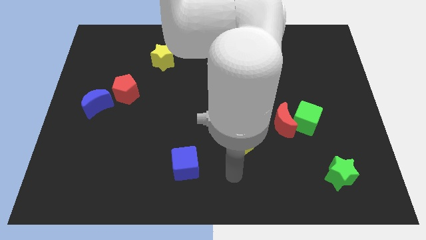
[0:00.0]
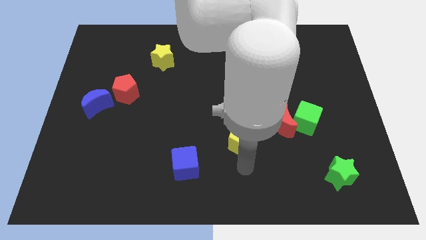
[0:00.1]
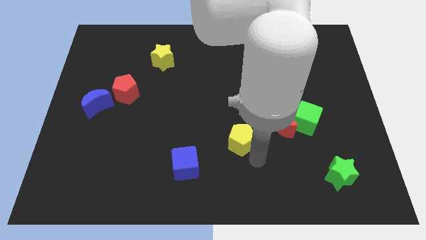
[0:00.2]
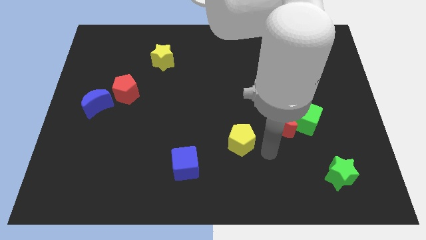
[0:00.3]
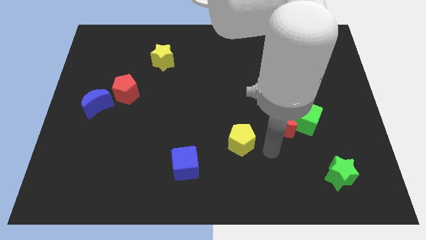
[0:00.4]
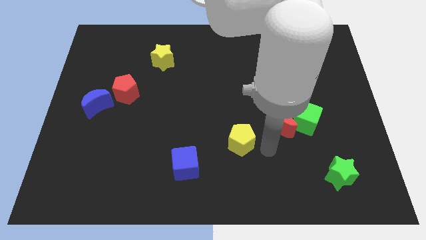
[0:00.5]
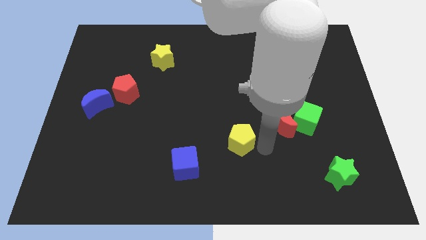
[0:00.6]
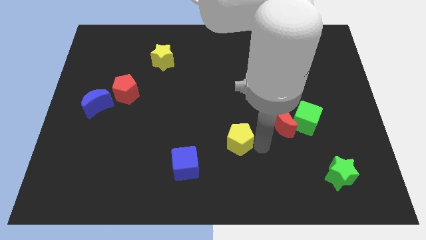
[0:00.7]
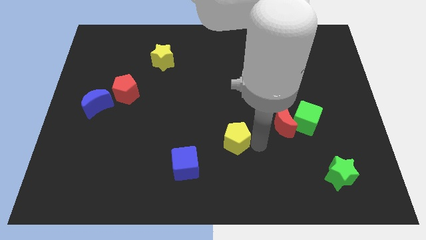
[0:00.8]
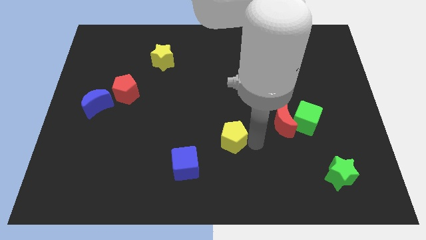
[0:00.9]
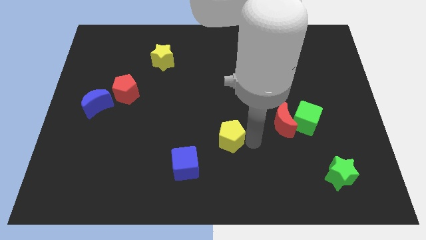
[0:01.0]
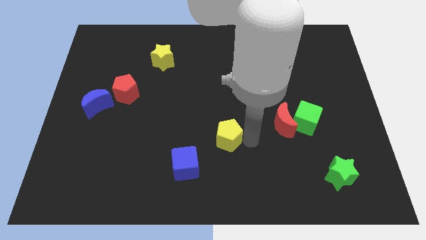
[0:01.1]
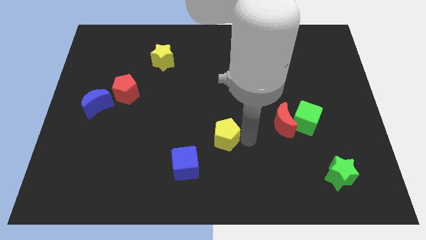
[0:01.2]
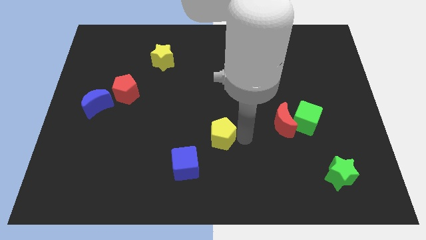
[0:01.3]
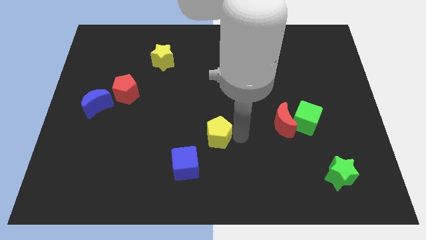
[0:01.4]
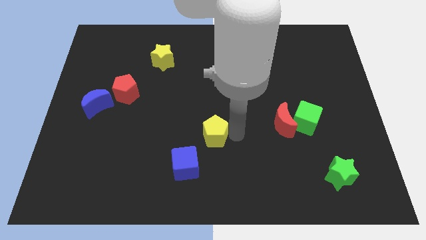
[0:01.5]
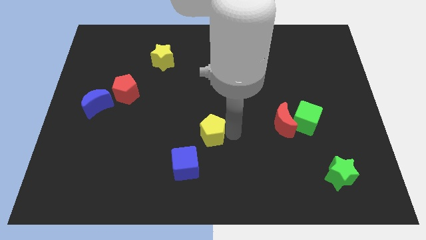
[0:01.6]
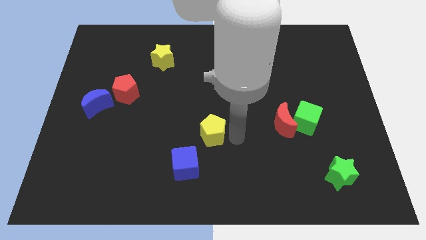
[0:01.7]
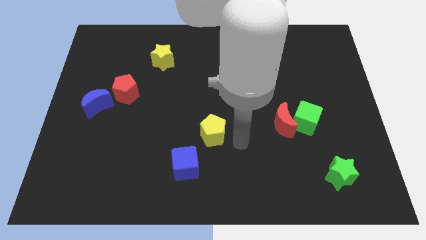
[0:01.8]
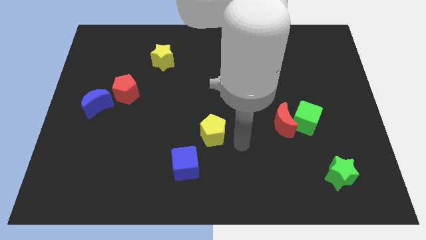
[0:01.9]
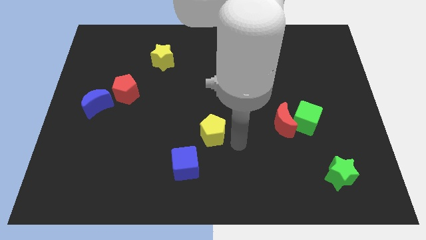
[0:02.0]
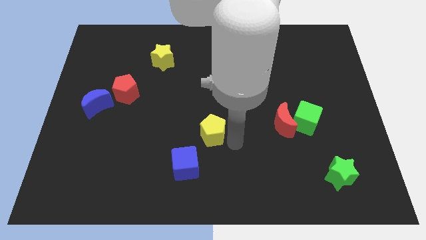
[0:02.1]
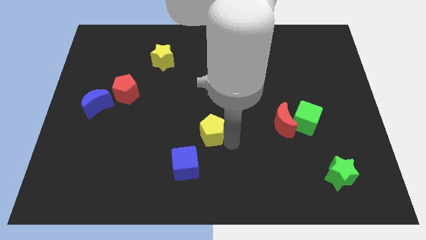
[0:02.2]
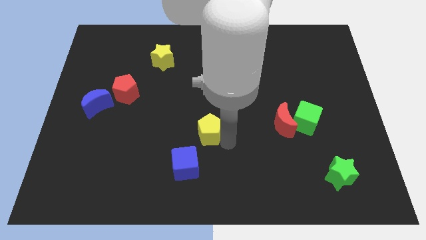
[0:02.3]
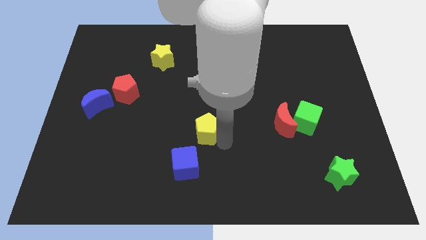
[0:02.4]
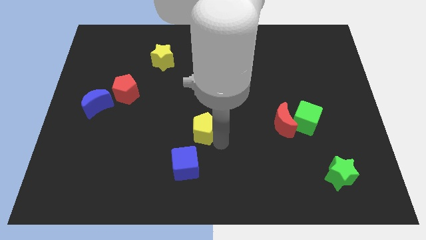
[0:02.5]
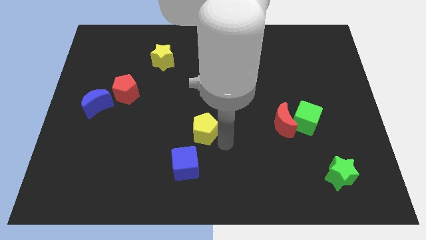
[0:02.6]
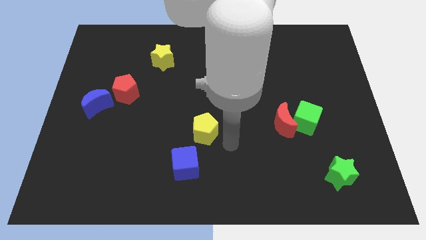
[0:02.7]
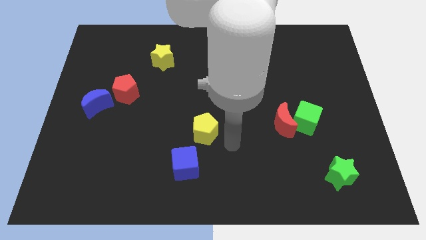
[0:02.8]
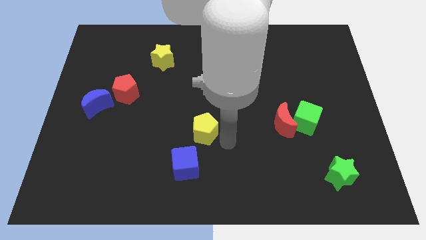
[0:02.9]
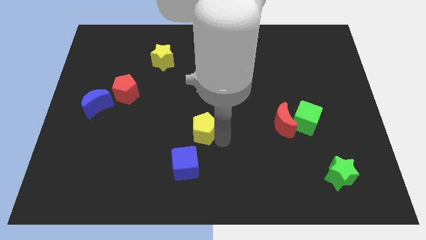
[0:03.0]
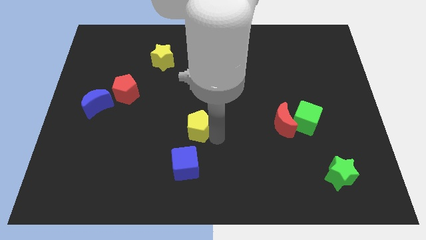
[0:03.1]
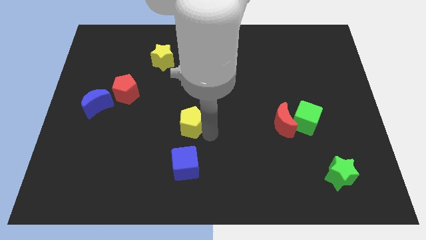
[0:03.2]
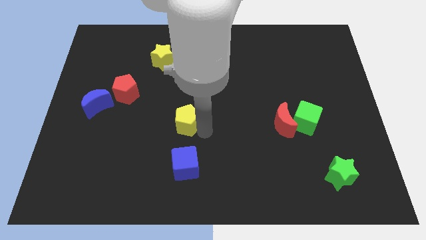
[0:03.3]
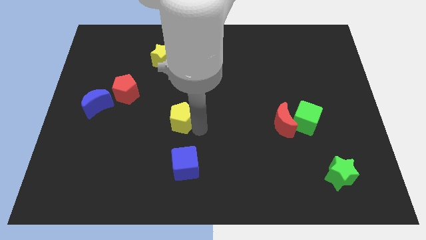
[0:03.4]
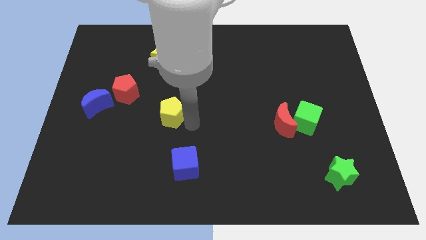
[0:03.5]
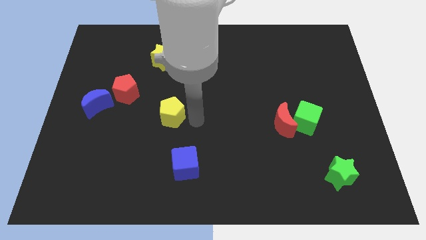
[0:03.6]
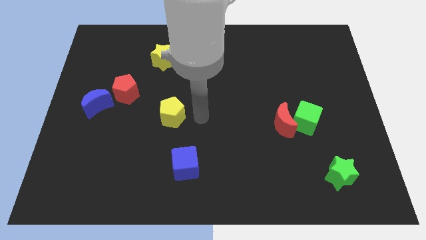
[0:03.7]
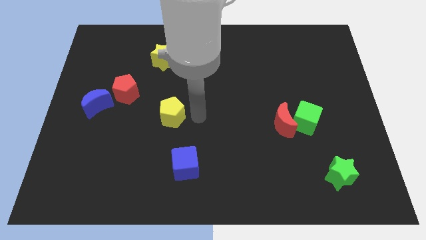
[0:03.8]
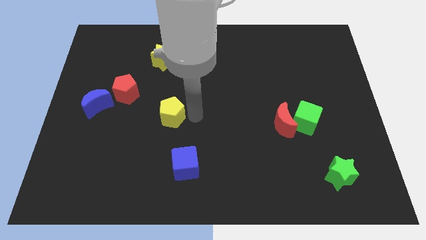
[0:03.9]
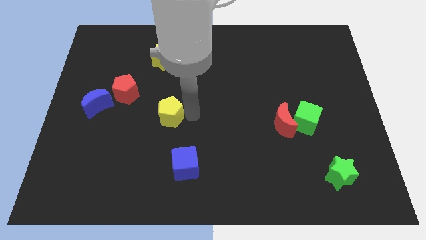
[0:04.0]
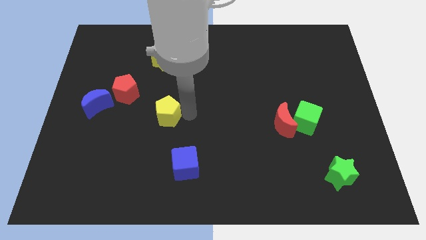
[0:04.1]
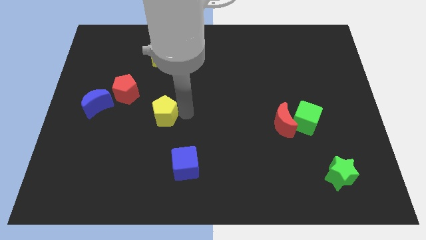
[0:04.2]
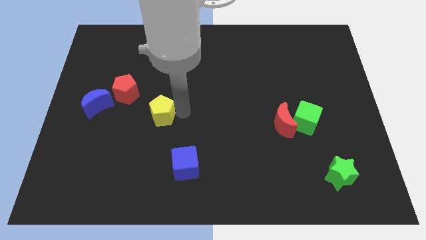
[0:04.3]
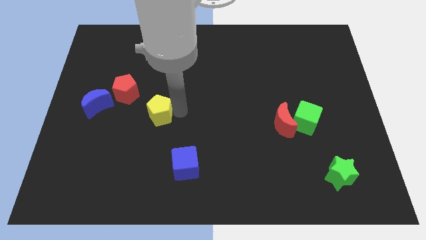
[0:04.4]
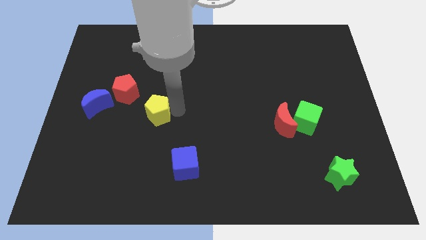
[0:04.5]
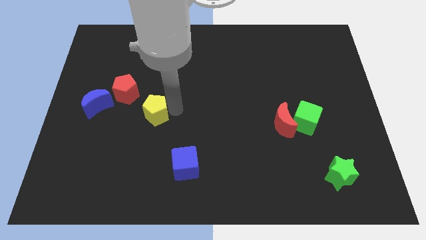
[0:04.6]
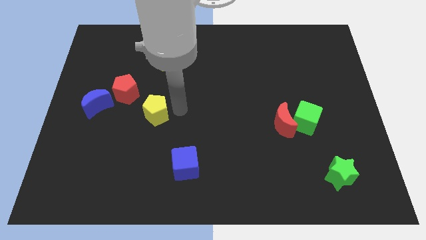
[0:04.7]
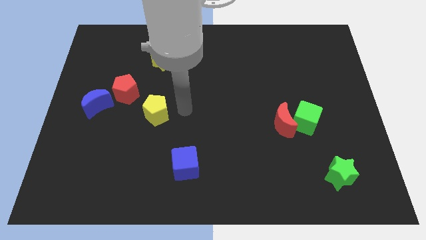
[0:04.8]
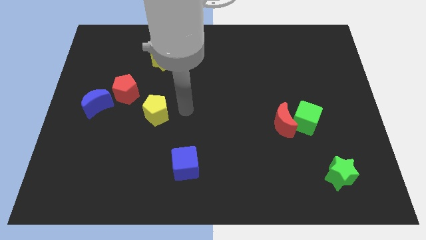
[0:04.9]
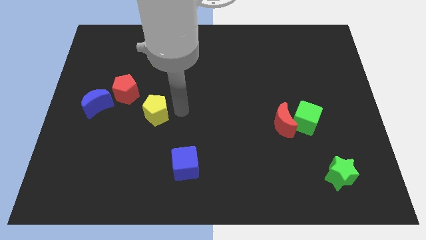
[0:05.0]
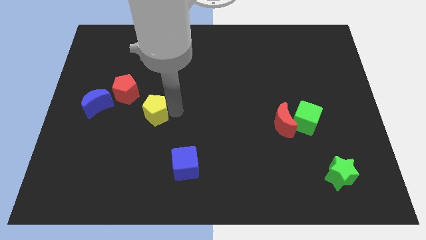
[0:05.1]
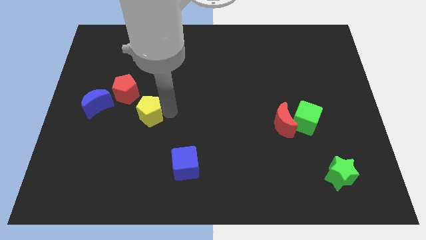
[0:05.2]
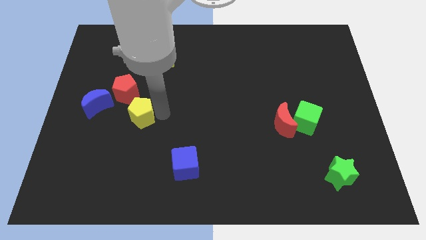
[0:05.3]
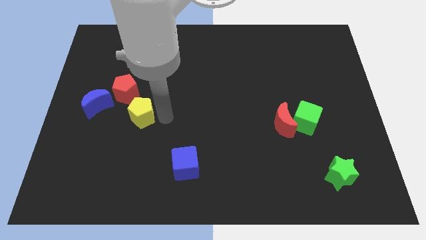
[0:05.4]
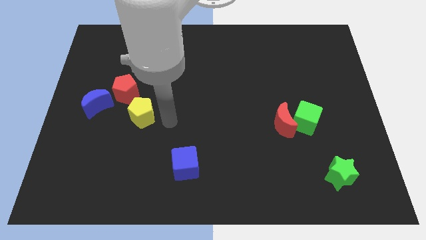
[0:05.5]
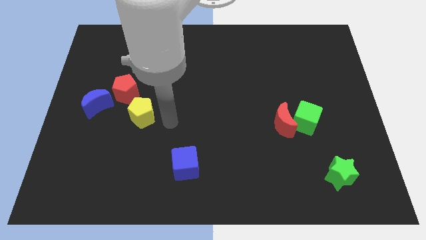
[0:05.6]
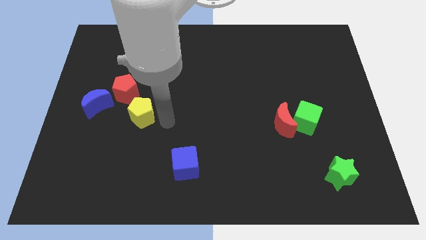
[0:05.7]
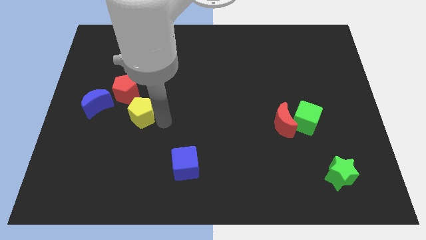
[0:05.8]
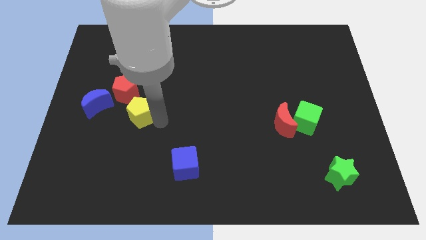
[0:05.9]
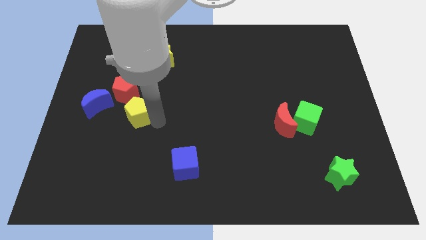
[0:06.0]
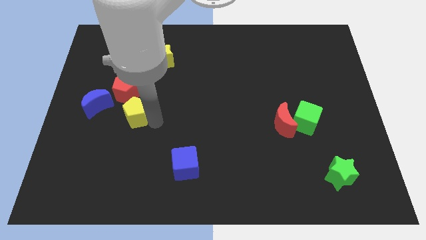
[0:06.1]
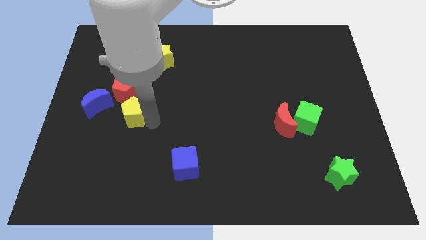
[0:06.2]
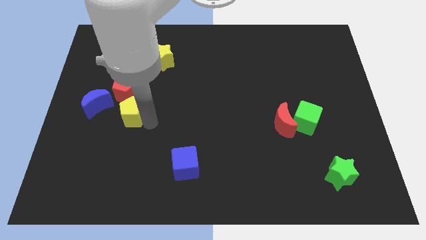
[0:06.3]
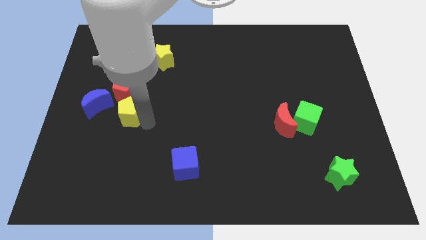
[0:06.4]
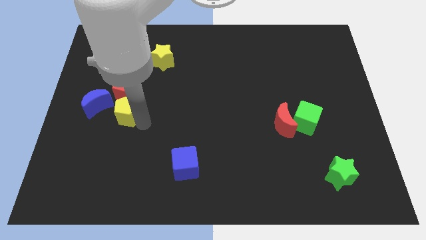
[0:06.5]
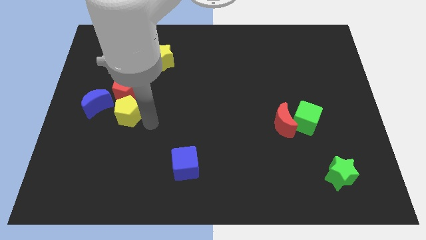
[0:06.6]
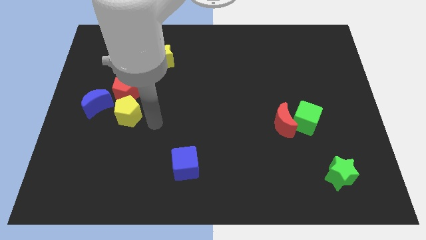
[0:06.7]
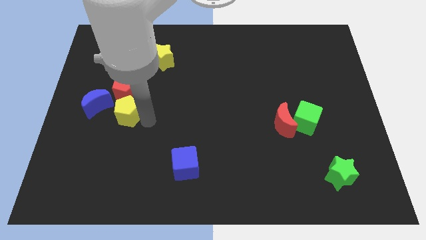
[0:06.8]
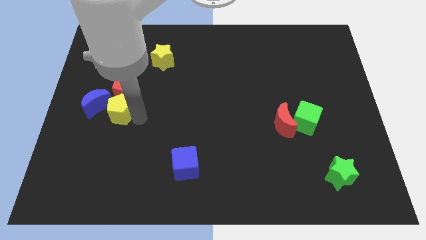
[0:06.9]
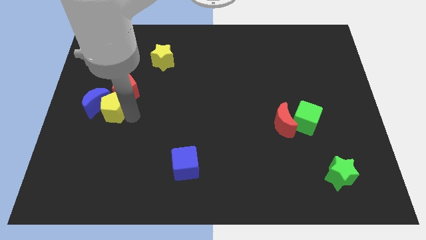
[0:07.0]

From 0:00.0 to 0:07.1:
slide the yellow pentagon next to the blue moon

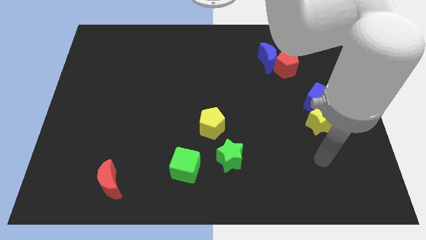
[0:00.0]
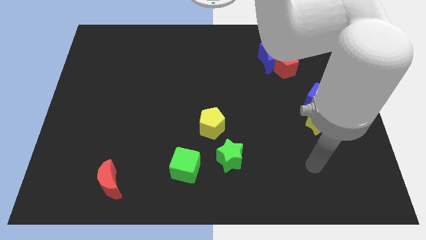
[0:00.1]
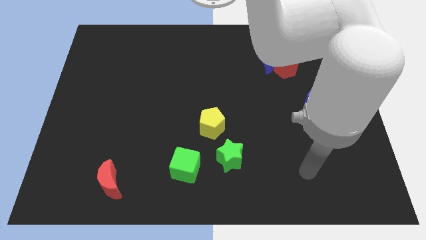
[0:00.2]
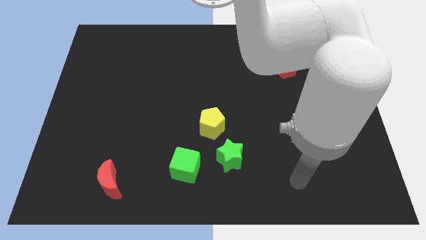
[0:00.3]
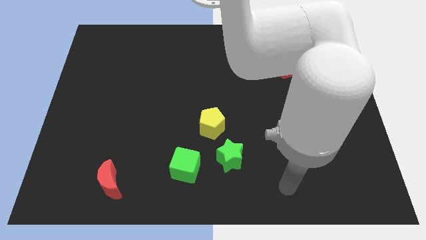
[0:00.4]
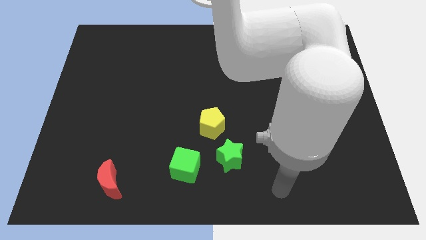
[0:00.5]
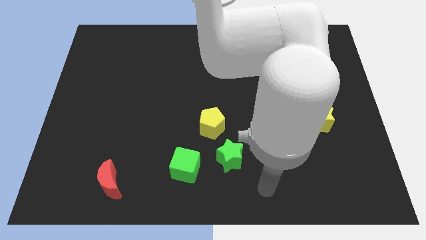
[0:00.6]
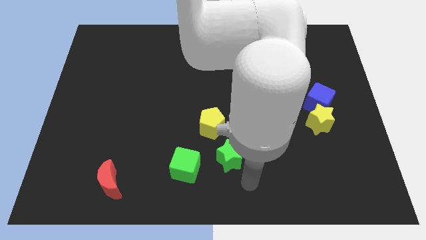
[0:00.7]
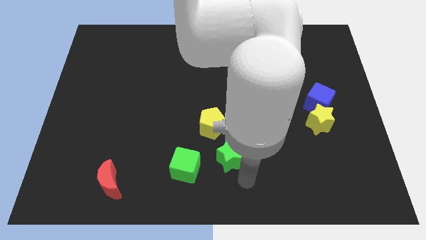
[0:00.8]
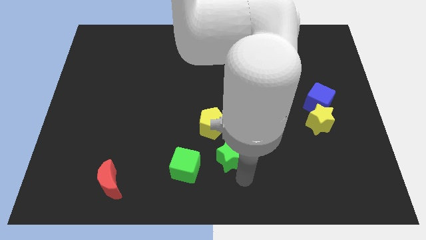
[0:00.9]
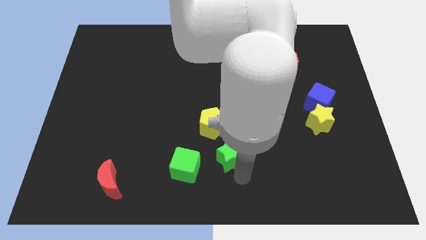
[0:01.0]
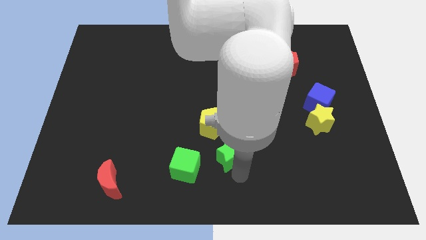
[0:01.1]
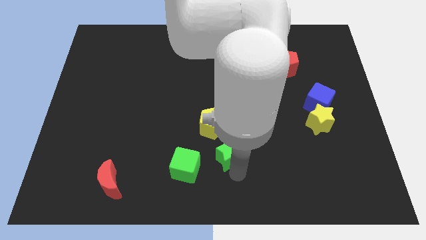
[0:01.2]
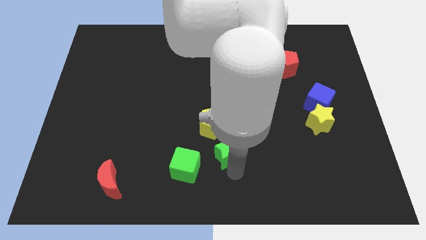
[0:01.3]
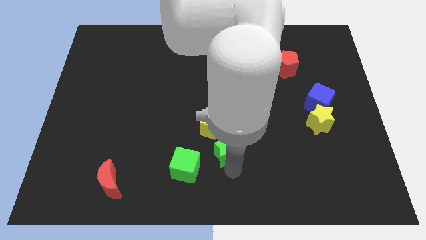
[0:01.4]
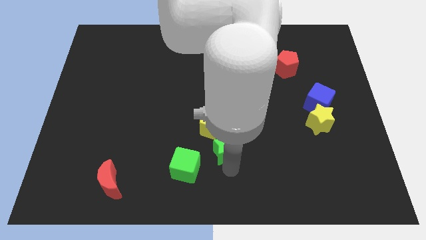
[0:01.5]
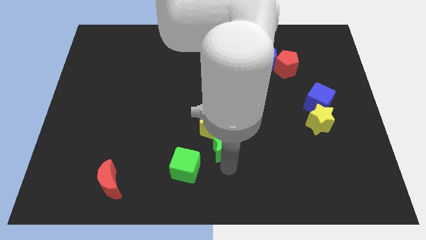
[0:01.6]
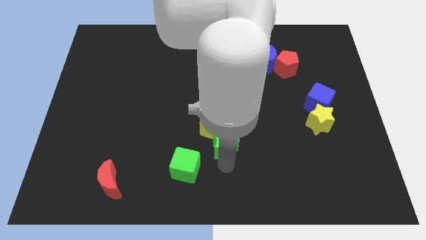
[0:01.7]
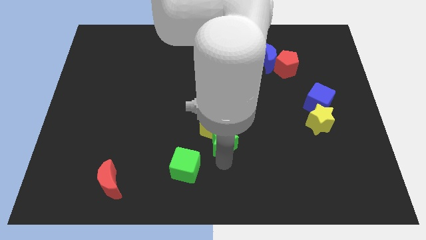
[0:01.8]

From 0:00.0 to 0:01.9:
move the green star towards the yellow pentagon
